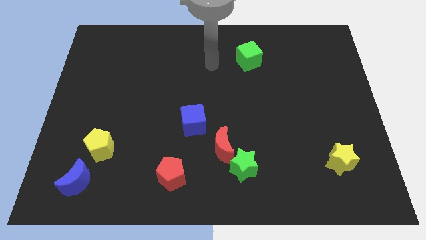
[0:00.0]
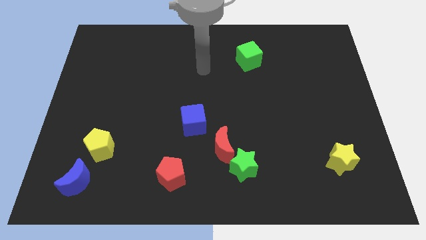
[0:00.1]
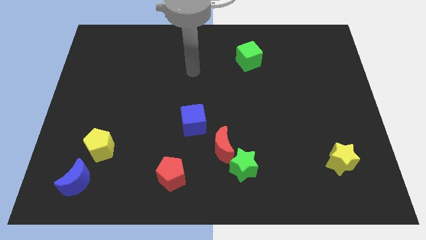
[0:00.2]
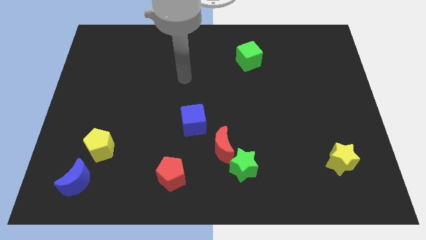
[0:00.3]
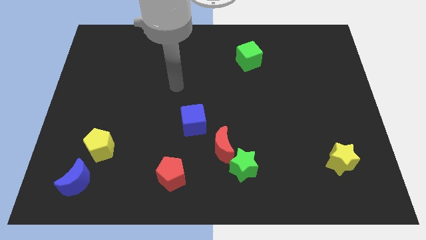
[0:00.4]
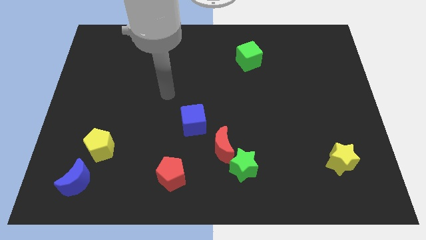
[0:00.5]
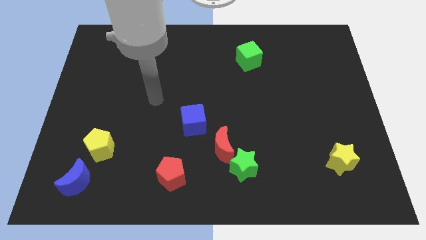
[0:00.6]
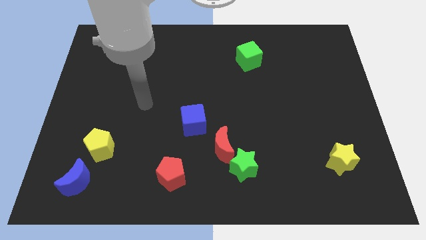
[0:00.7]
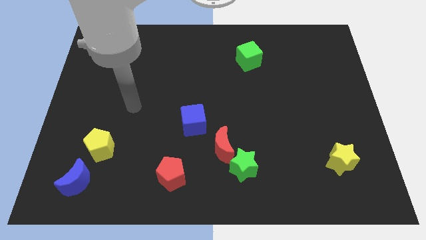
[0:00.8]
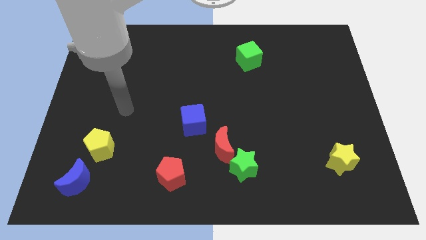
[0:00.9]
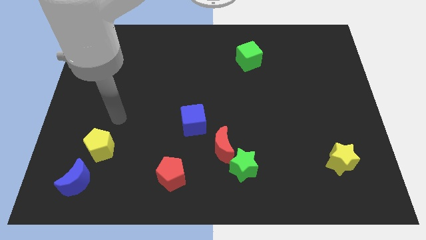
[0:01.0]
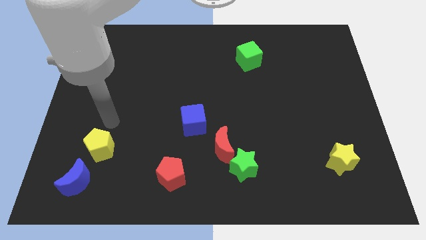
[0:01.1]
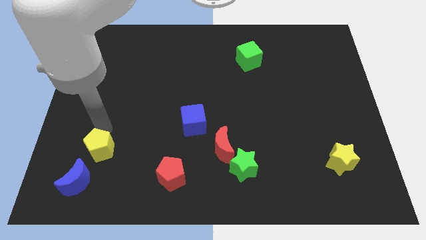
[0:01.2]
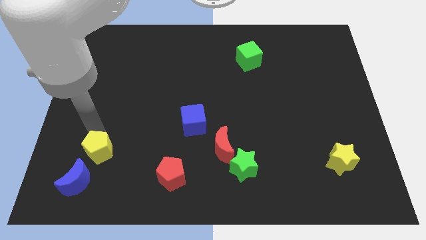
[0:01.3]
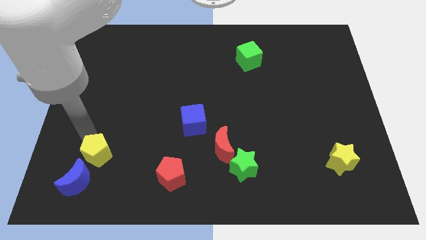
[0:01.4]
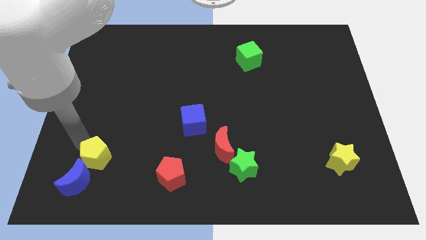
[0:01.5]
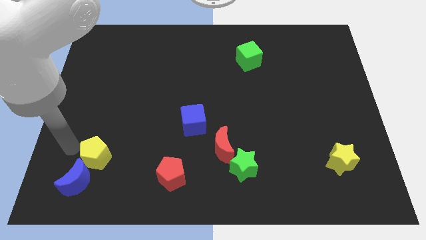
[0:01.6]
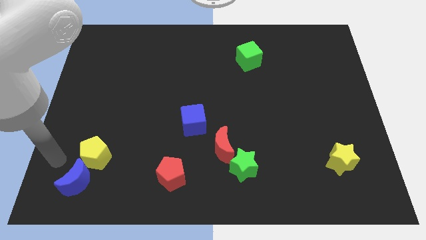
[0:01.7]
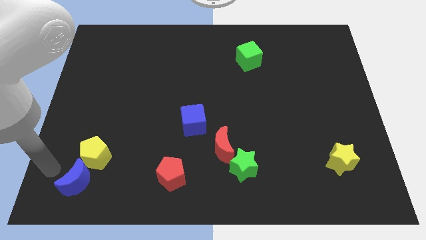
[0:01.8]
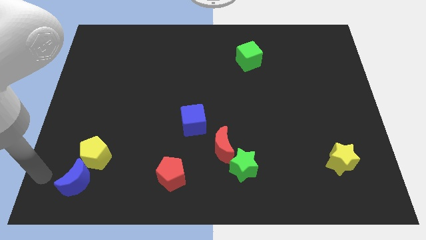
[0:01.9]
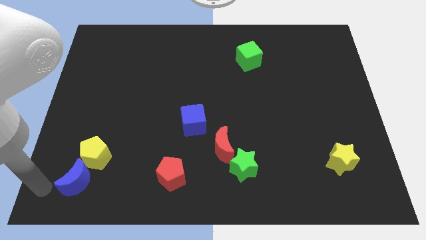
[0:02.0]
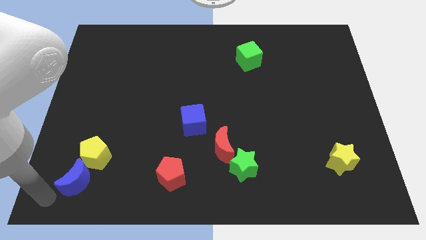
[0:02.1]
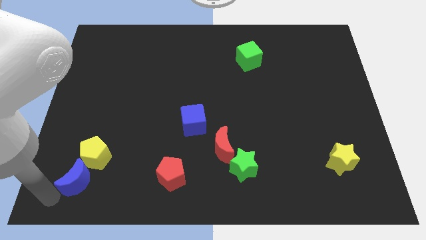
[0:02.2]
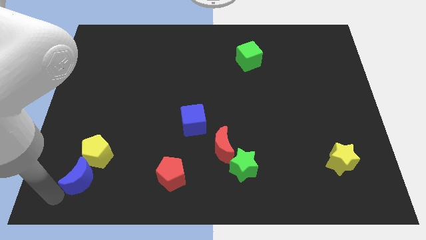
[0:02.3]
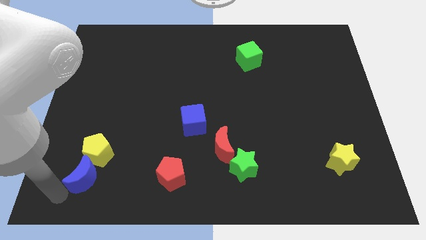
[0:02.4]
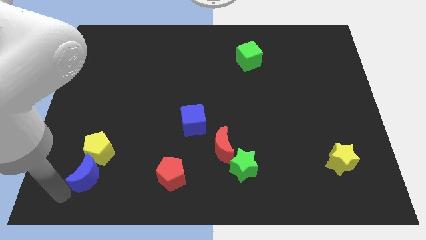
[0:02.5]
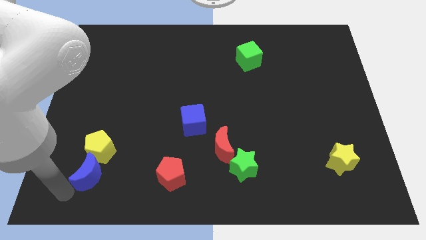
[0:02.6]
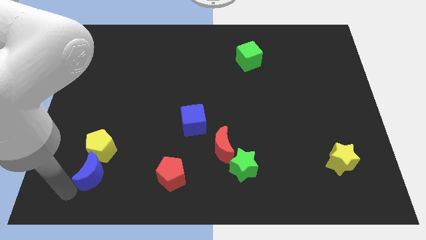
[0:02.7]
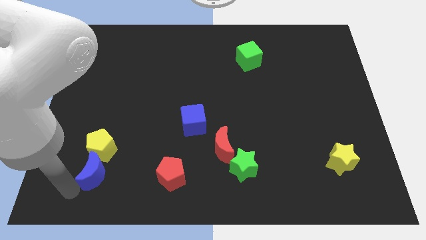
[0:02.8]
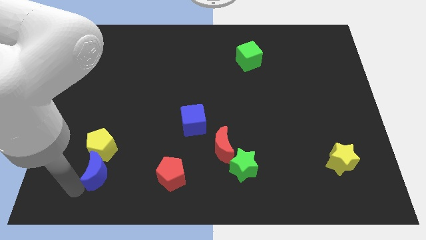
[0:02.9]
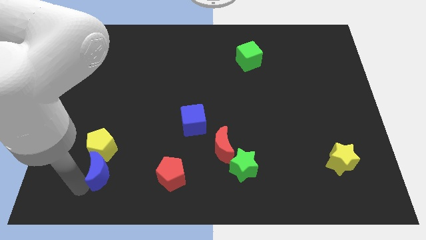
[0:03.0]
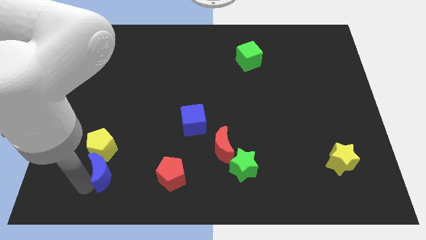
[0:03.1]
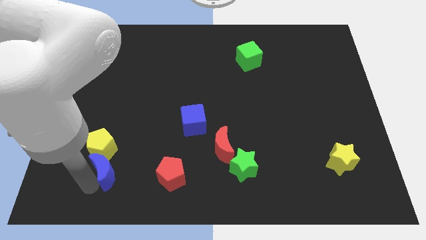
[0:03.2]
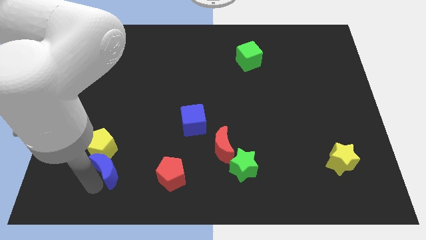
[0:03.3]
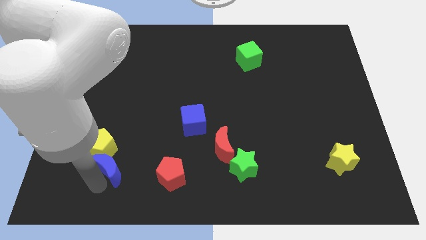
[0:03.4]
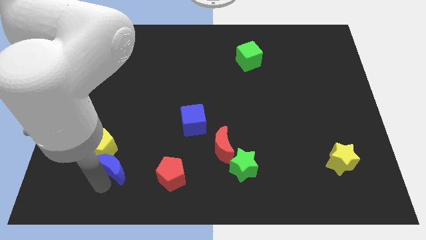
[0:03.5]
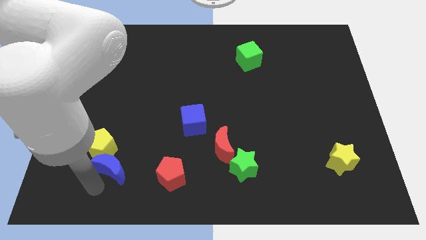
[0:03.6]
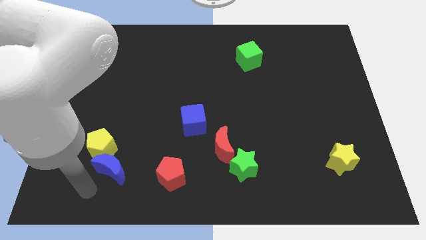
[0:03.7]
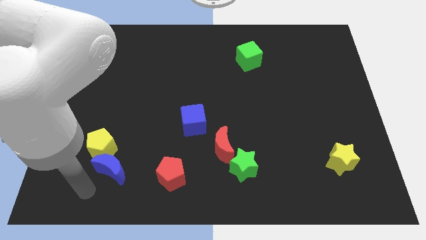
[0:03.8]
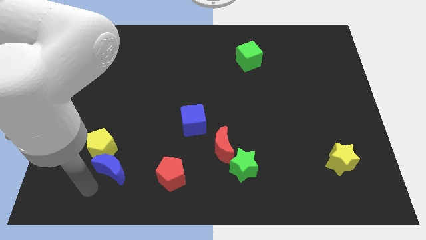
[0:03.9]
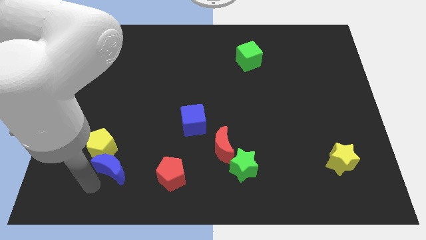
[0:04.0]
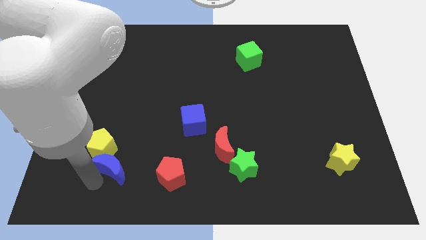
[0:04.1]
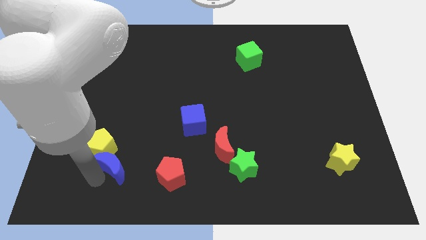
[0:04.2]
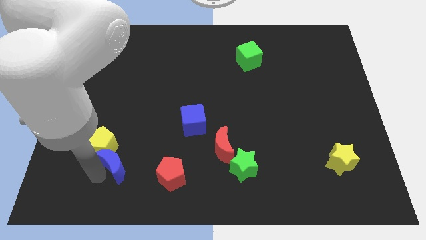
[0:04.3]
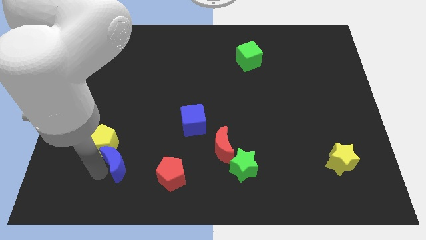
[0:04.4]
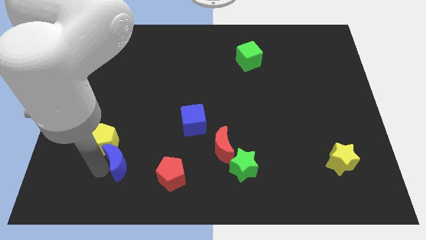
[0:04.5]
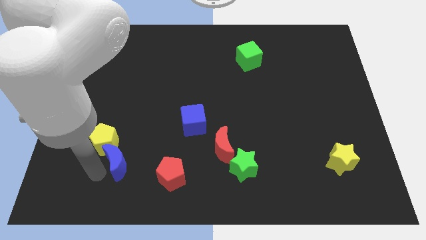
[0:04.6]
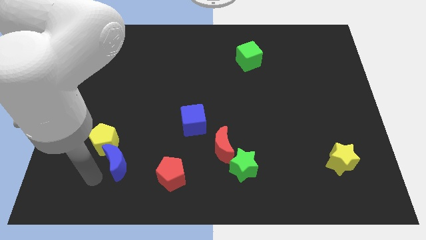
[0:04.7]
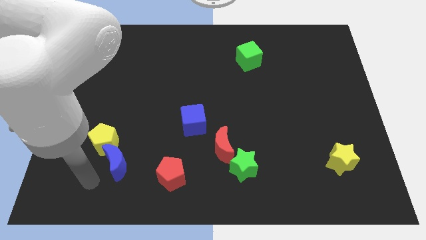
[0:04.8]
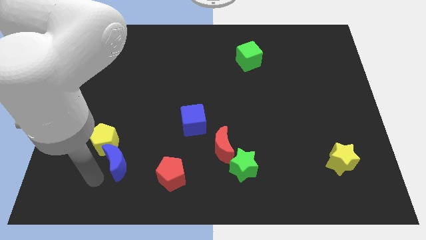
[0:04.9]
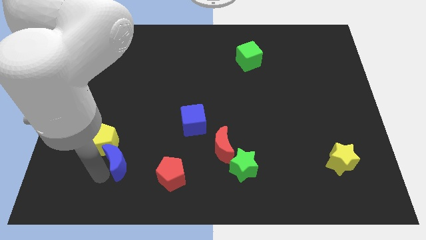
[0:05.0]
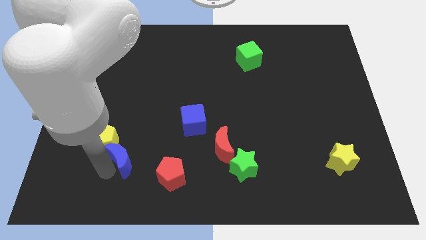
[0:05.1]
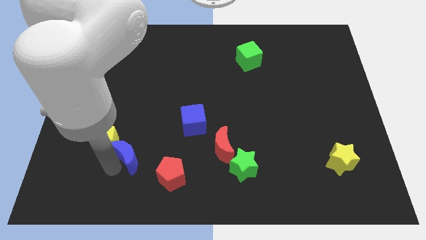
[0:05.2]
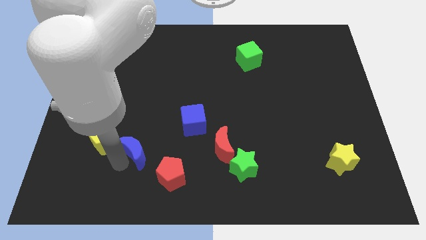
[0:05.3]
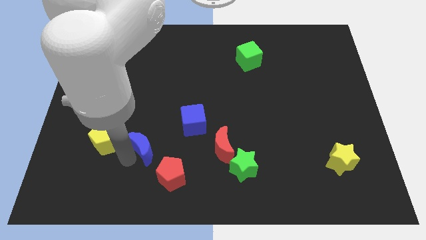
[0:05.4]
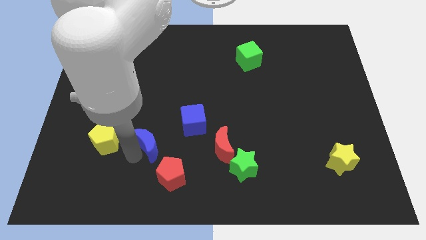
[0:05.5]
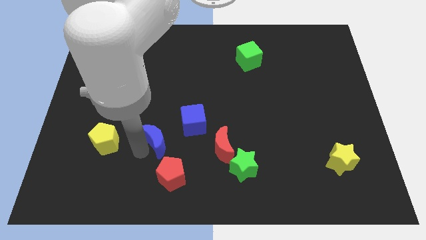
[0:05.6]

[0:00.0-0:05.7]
slide the blue moon above the red pentagon
